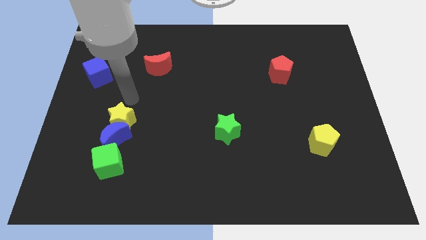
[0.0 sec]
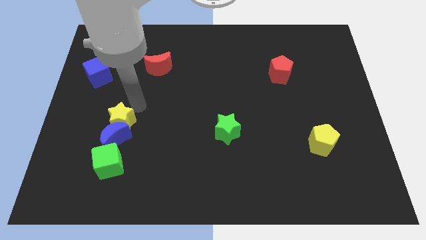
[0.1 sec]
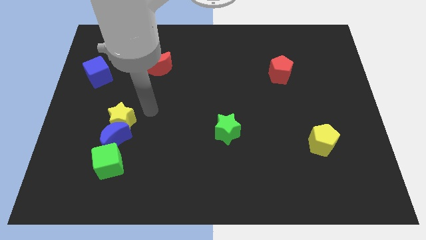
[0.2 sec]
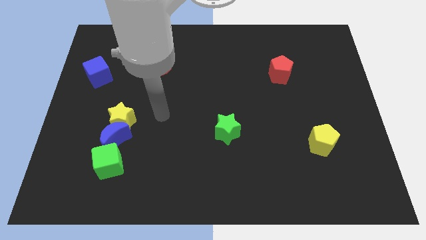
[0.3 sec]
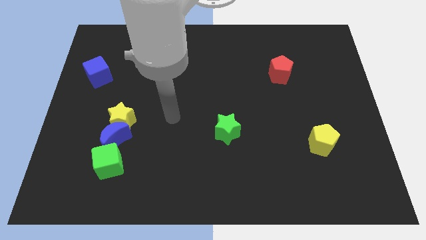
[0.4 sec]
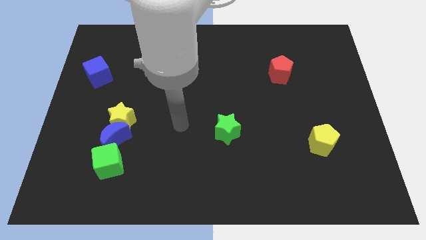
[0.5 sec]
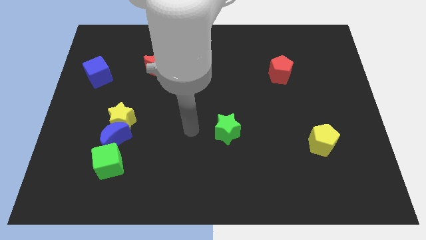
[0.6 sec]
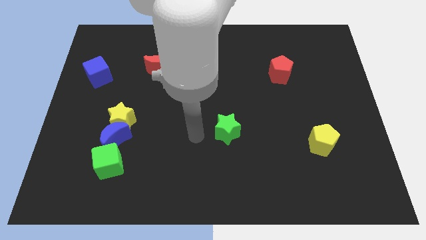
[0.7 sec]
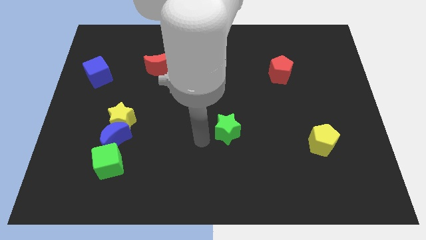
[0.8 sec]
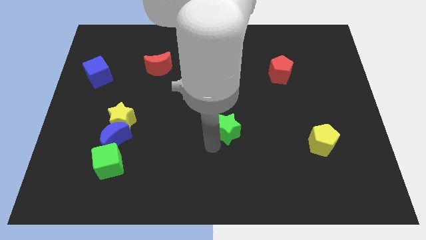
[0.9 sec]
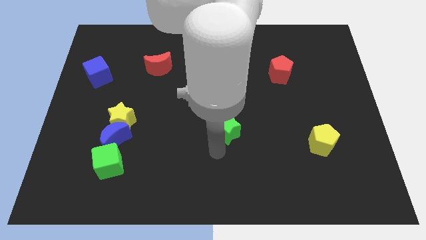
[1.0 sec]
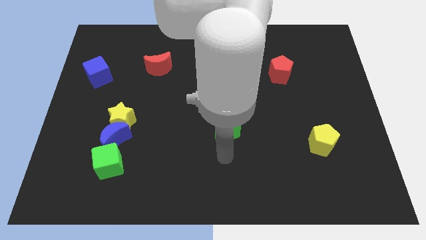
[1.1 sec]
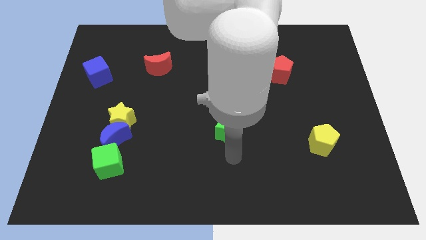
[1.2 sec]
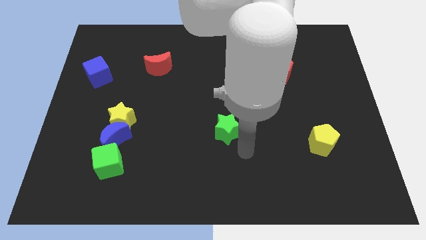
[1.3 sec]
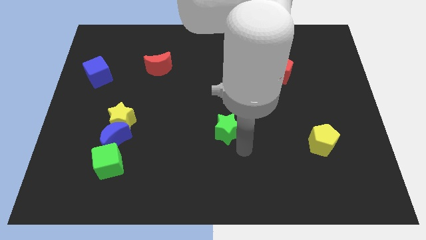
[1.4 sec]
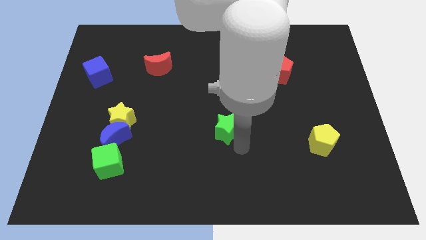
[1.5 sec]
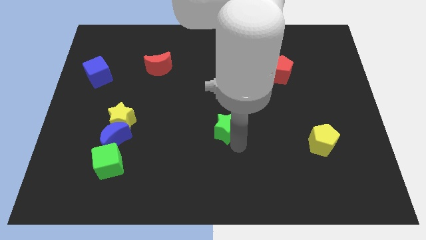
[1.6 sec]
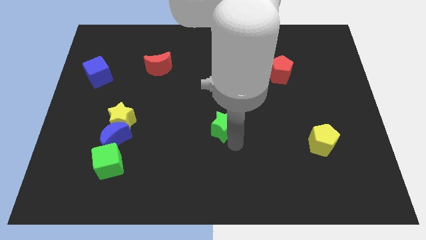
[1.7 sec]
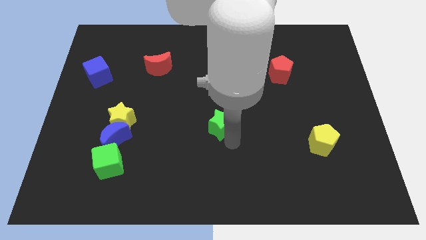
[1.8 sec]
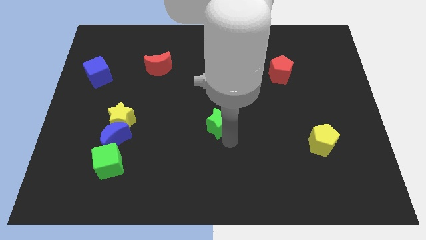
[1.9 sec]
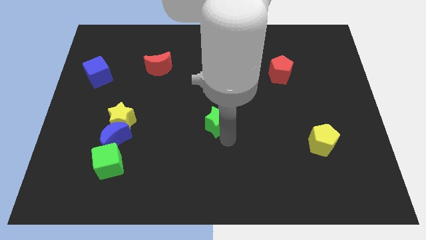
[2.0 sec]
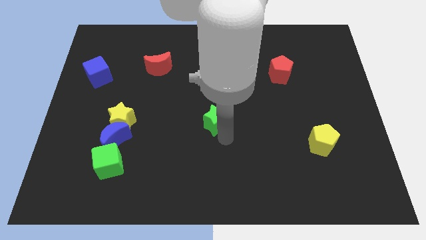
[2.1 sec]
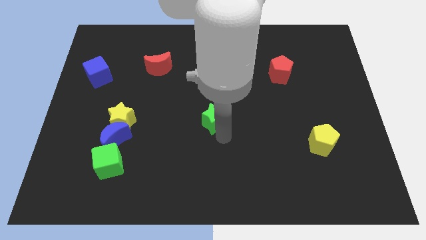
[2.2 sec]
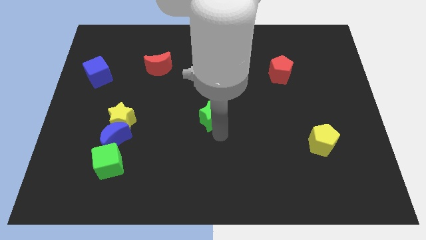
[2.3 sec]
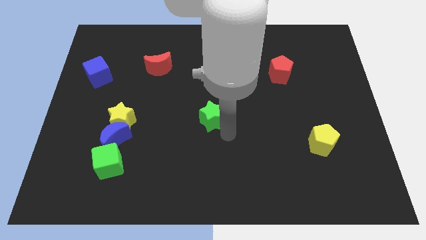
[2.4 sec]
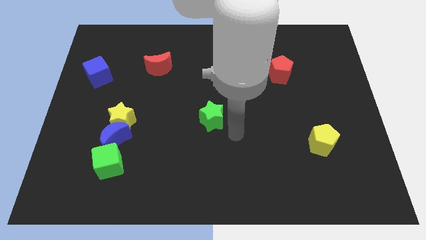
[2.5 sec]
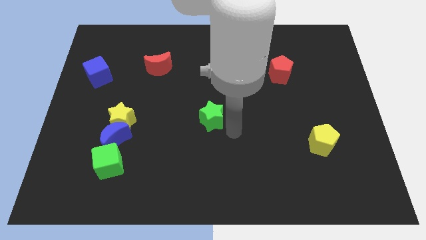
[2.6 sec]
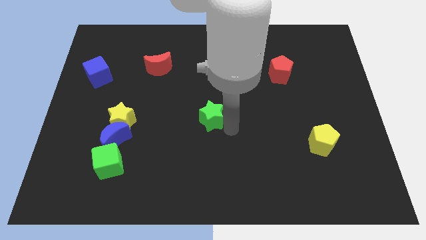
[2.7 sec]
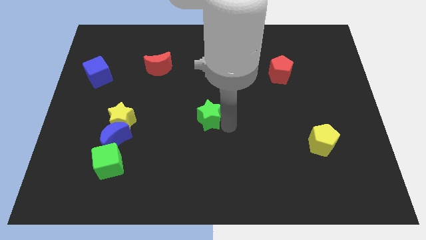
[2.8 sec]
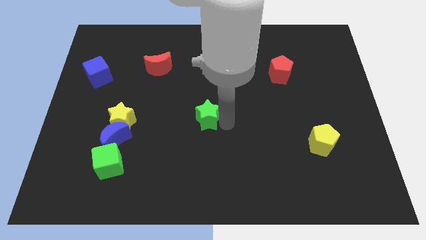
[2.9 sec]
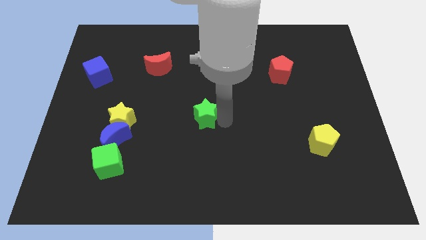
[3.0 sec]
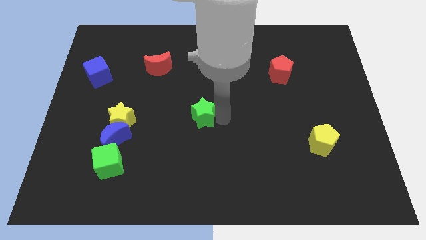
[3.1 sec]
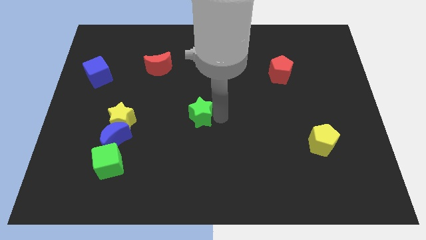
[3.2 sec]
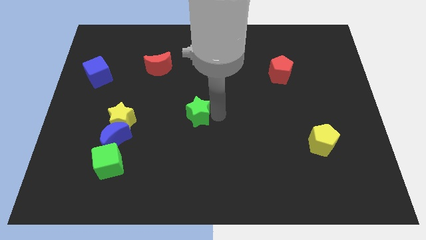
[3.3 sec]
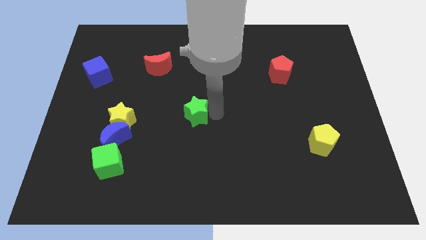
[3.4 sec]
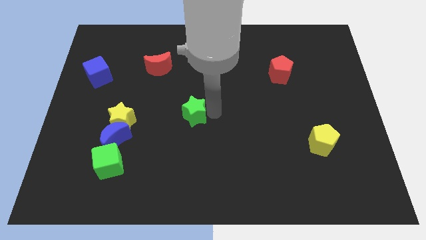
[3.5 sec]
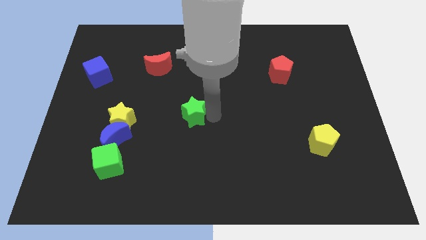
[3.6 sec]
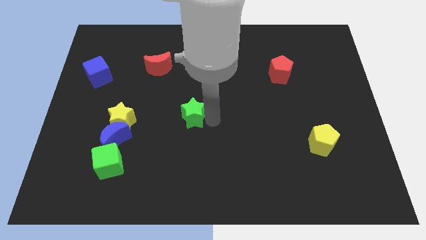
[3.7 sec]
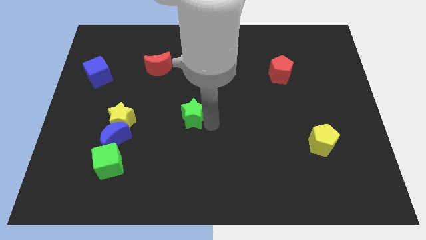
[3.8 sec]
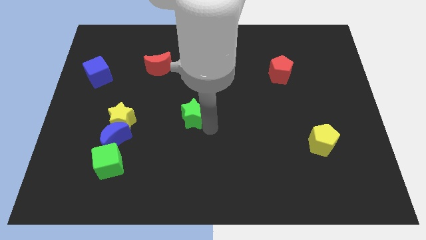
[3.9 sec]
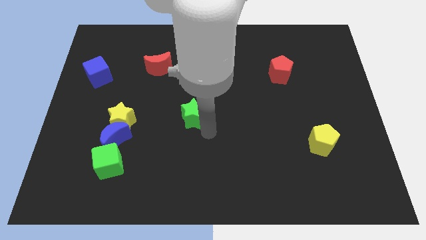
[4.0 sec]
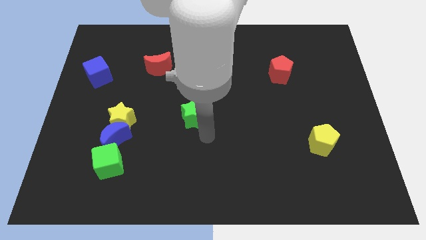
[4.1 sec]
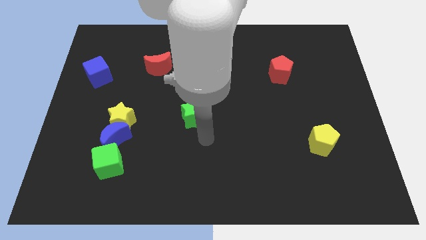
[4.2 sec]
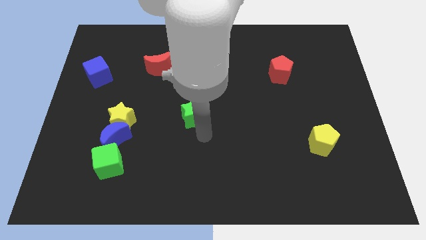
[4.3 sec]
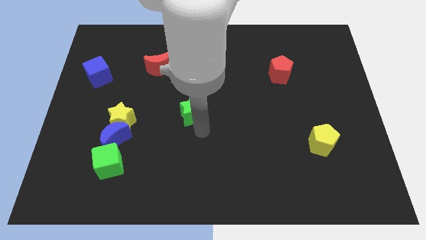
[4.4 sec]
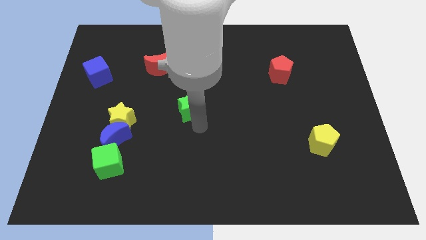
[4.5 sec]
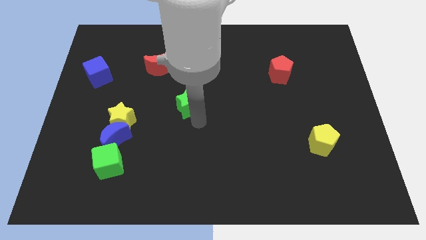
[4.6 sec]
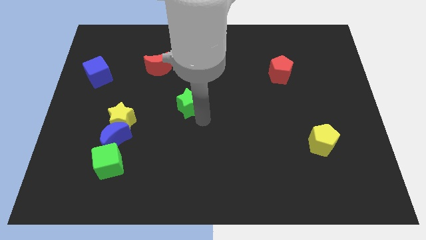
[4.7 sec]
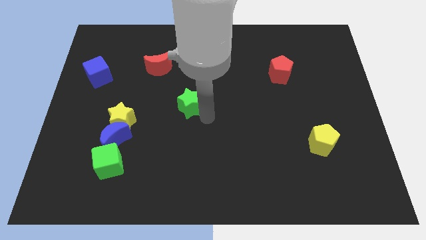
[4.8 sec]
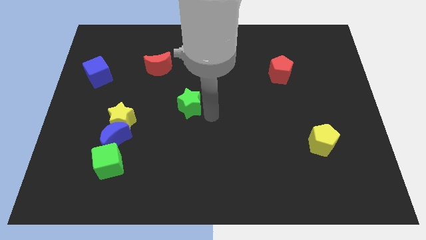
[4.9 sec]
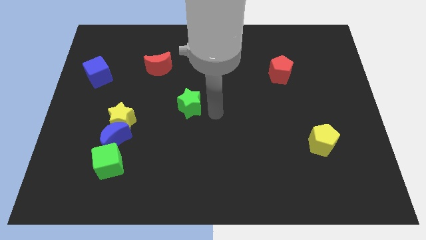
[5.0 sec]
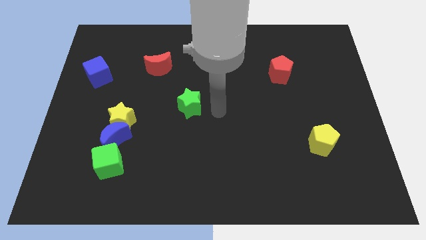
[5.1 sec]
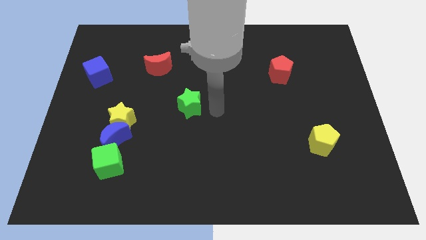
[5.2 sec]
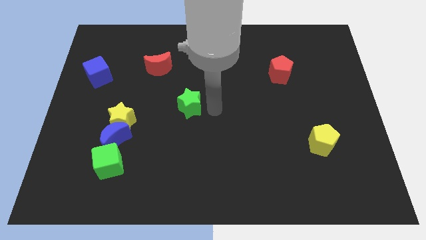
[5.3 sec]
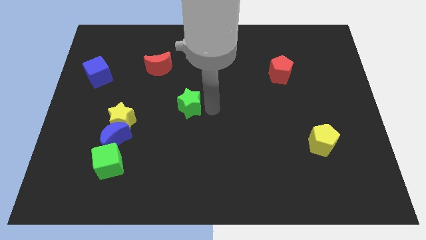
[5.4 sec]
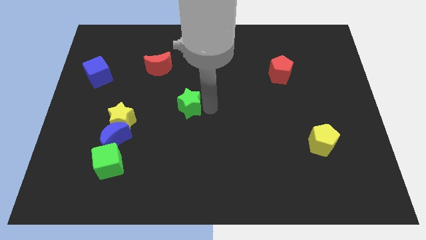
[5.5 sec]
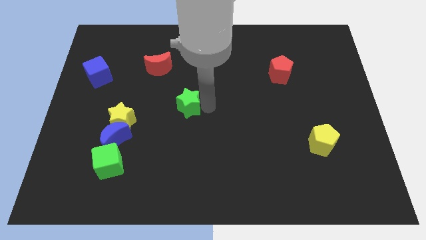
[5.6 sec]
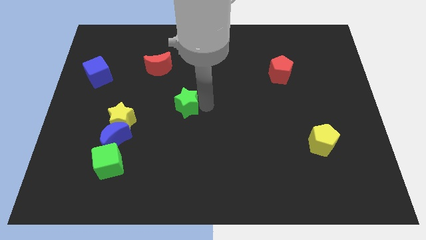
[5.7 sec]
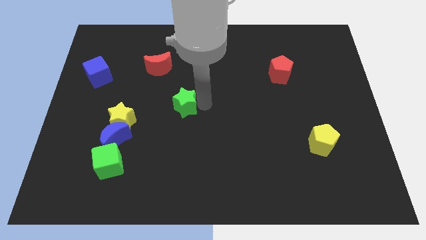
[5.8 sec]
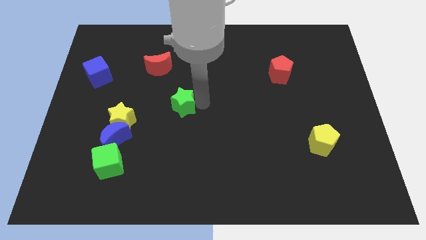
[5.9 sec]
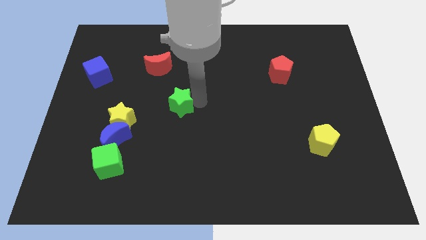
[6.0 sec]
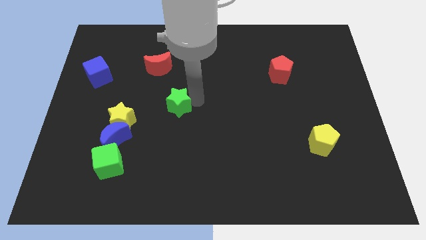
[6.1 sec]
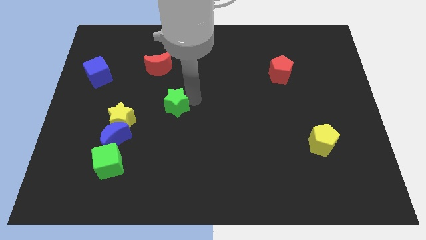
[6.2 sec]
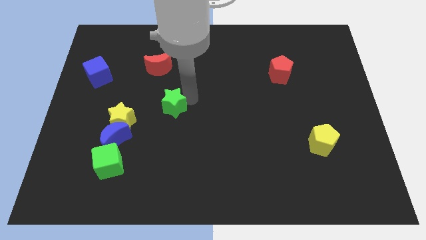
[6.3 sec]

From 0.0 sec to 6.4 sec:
move the green star to the bottom of the red moon
